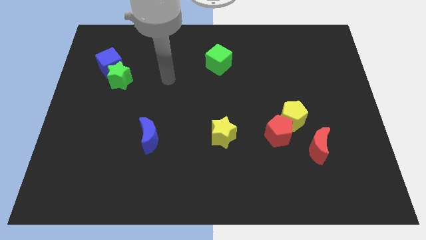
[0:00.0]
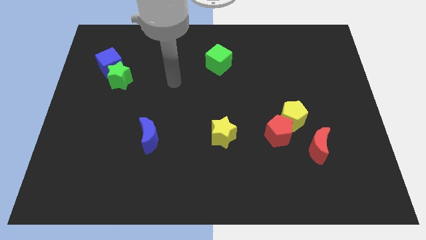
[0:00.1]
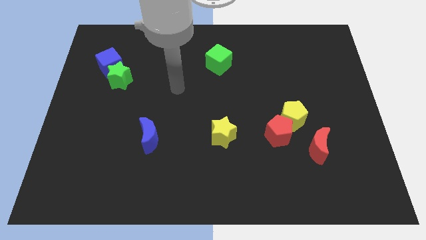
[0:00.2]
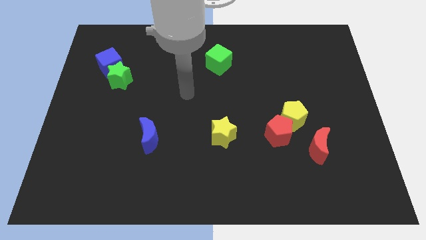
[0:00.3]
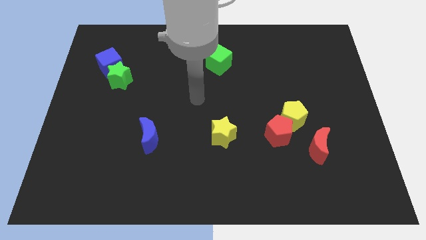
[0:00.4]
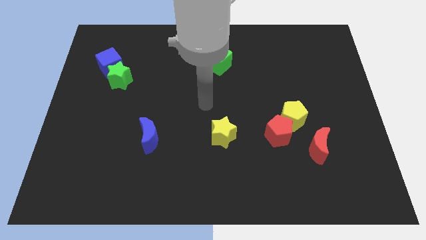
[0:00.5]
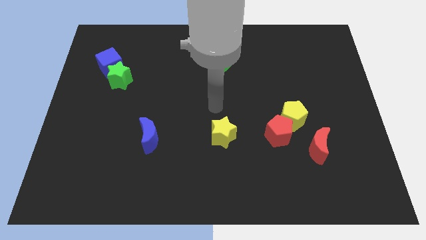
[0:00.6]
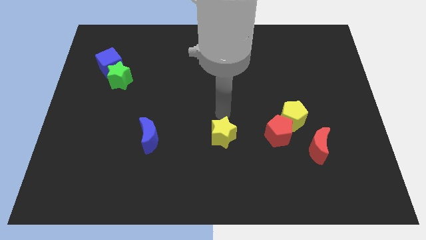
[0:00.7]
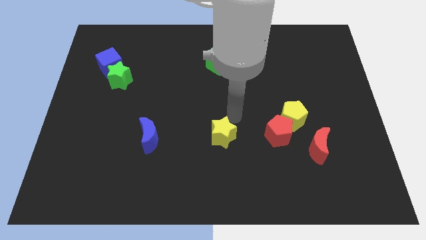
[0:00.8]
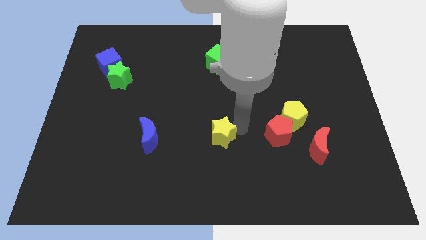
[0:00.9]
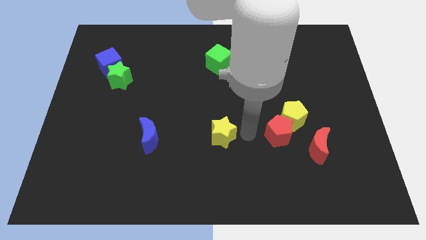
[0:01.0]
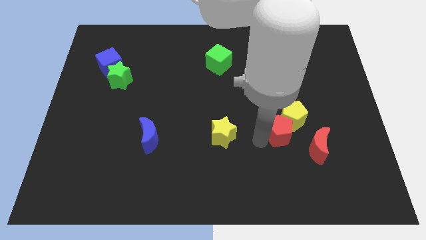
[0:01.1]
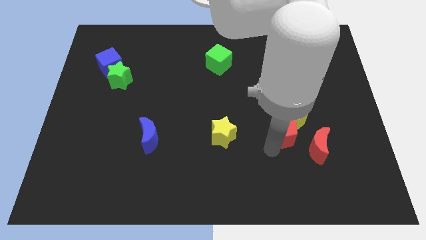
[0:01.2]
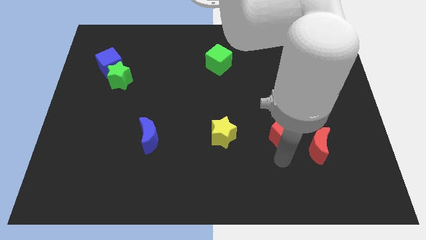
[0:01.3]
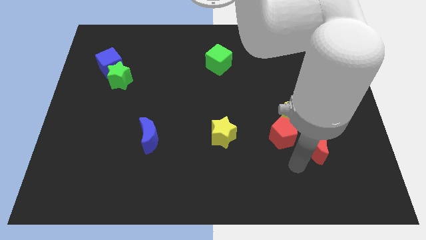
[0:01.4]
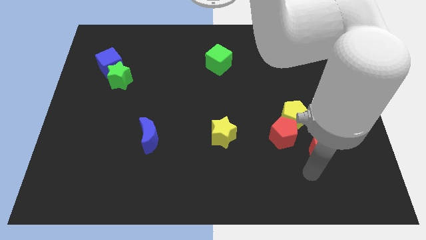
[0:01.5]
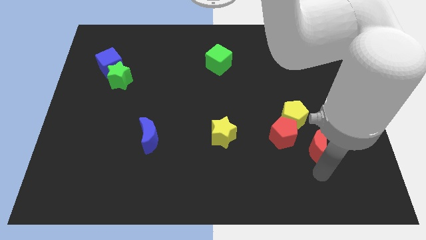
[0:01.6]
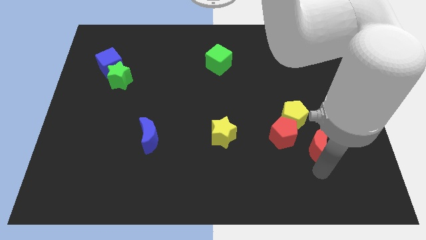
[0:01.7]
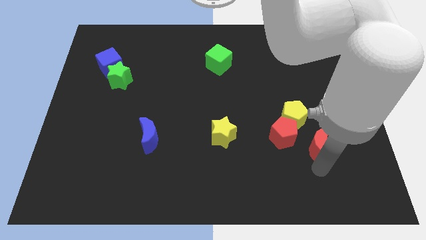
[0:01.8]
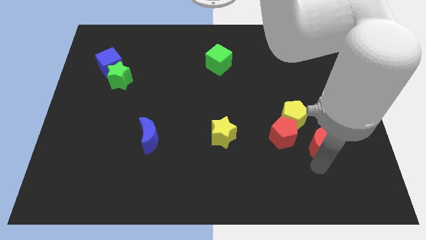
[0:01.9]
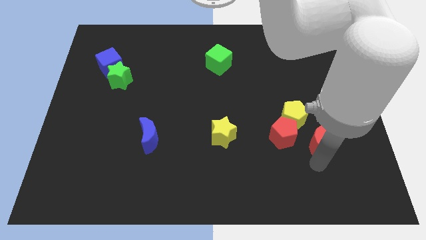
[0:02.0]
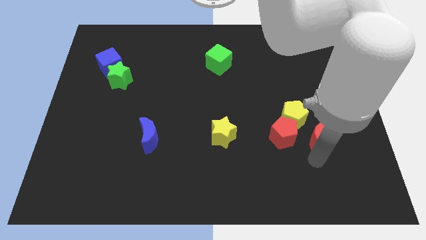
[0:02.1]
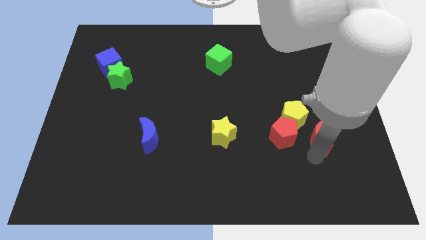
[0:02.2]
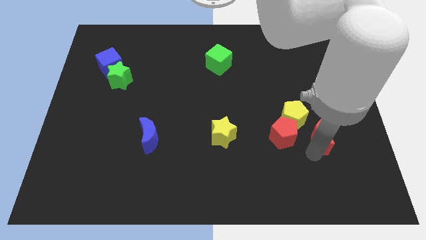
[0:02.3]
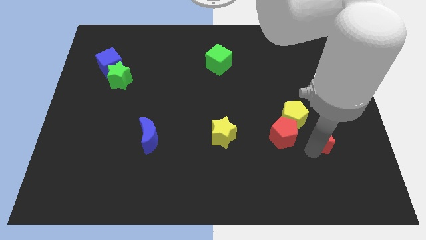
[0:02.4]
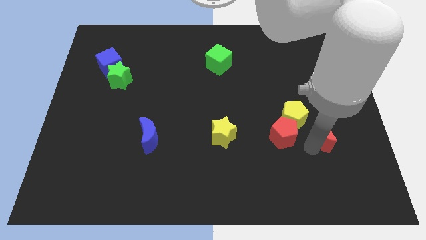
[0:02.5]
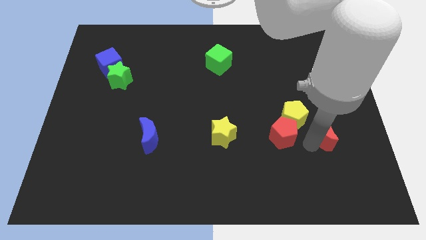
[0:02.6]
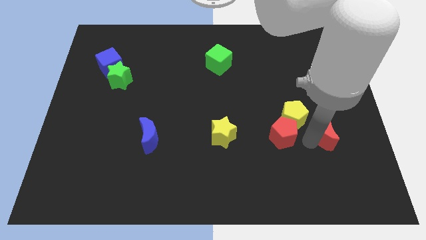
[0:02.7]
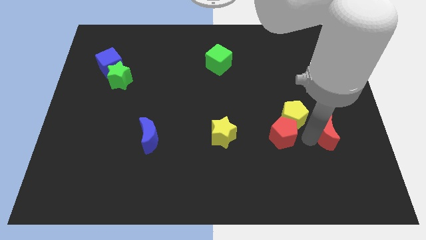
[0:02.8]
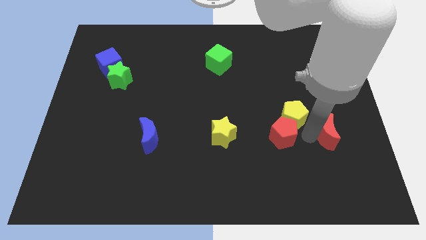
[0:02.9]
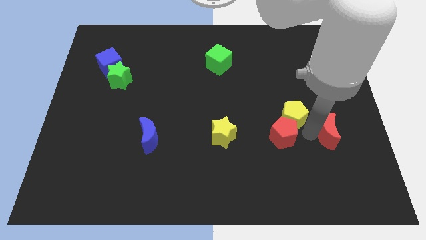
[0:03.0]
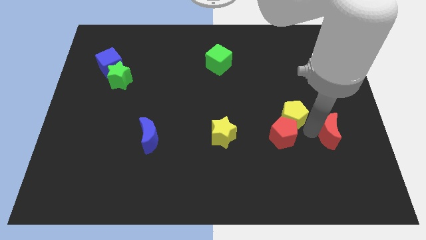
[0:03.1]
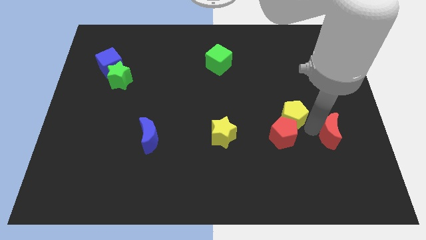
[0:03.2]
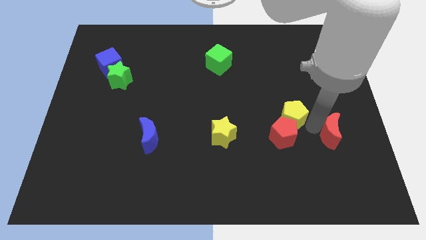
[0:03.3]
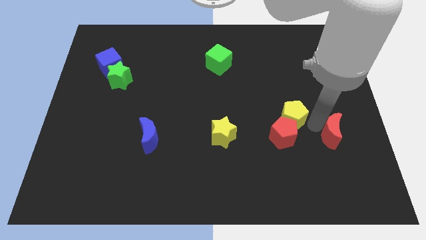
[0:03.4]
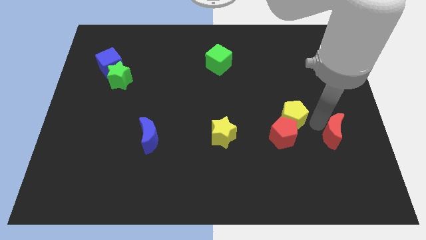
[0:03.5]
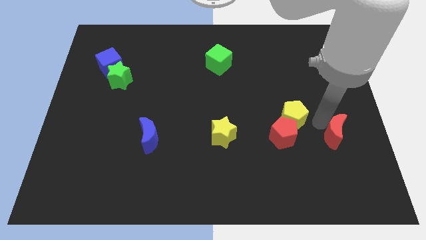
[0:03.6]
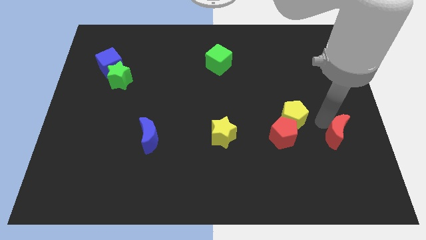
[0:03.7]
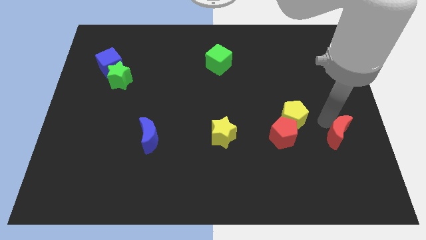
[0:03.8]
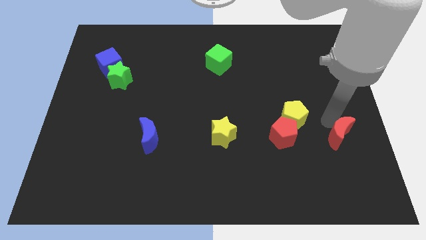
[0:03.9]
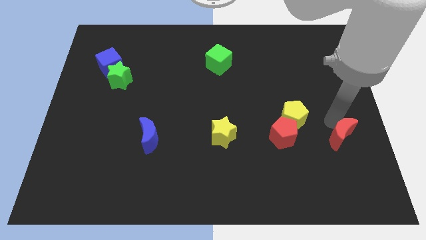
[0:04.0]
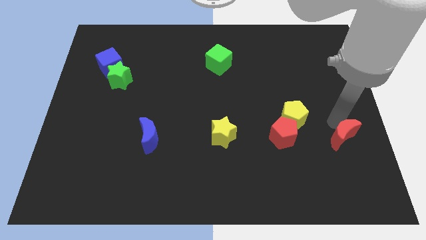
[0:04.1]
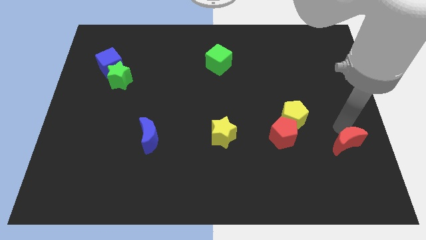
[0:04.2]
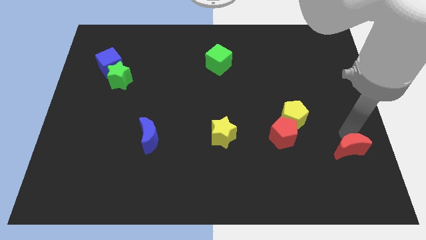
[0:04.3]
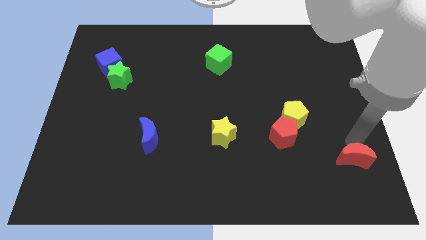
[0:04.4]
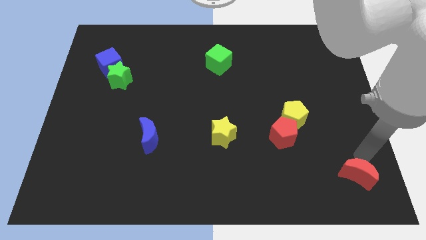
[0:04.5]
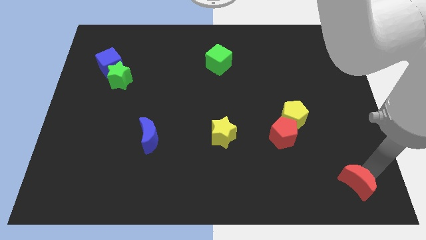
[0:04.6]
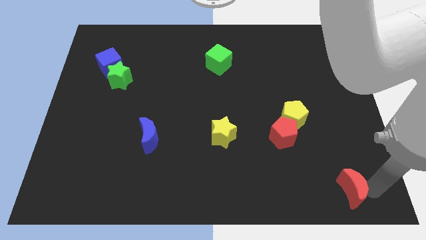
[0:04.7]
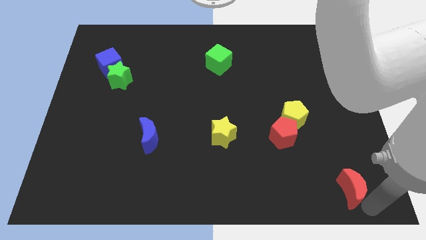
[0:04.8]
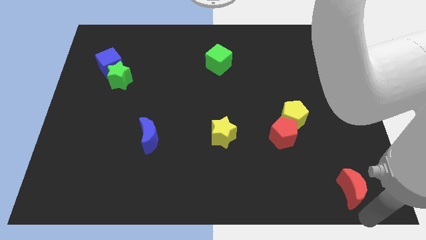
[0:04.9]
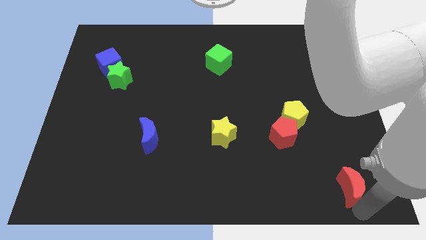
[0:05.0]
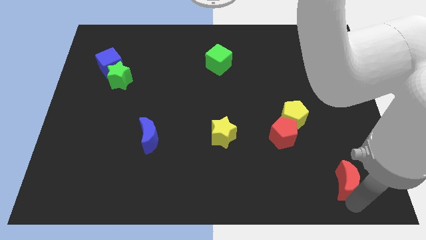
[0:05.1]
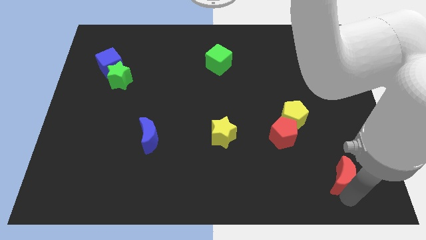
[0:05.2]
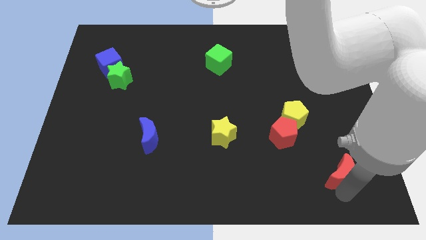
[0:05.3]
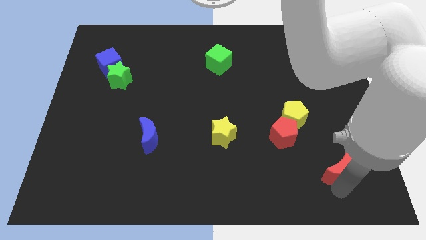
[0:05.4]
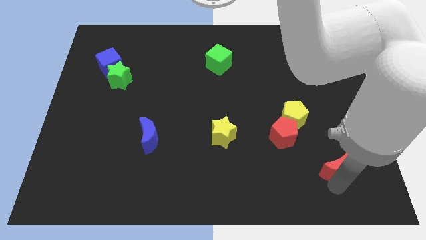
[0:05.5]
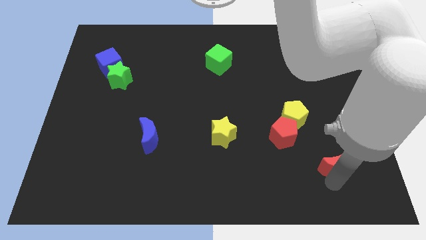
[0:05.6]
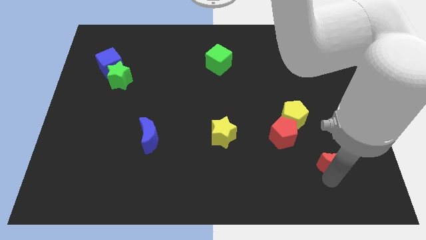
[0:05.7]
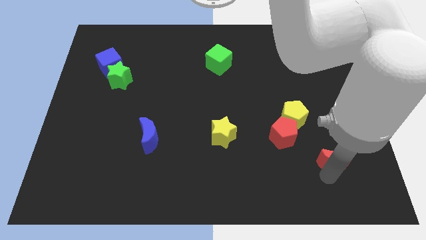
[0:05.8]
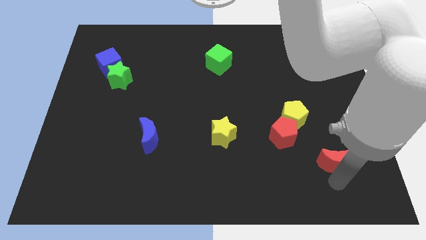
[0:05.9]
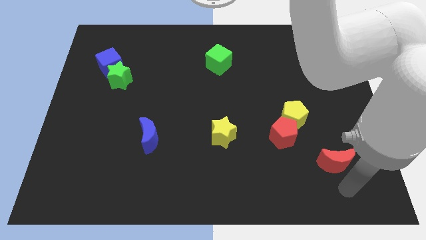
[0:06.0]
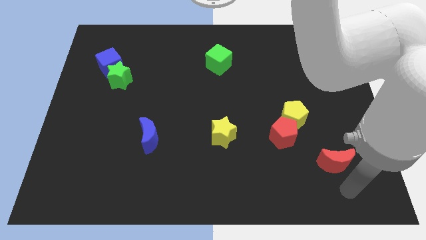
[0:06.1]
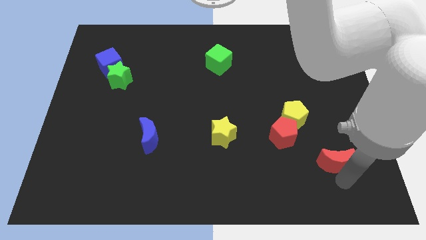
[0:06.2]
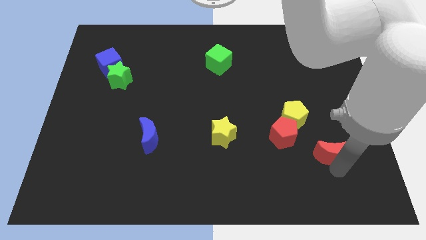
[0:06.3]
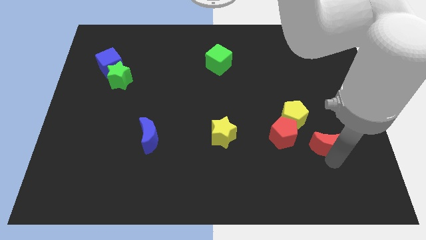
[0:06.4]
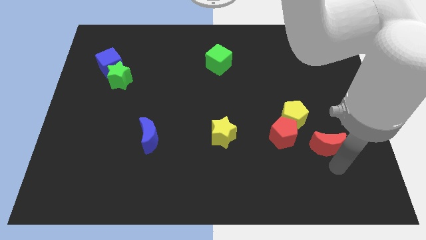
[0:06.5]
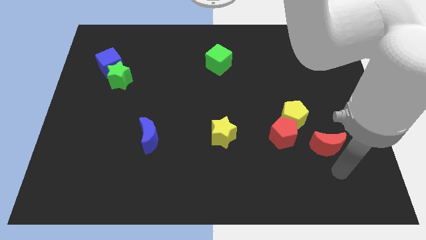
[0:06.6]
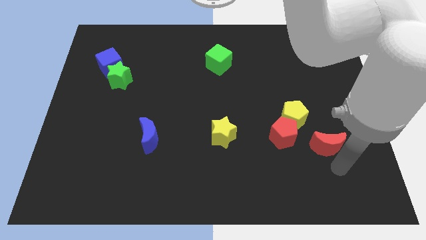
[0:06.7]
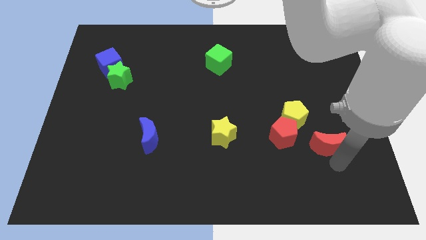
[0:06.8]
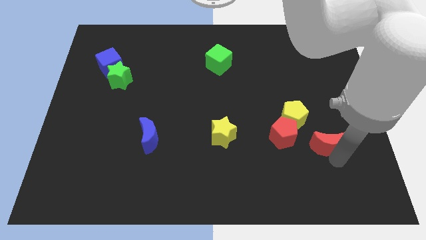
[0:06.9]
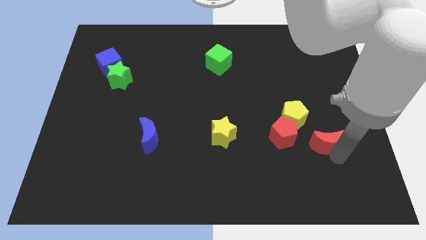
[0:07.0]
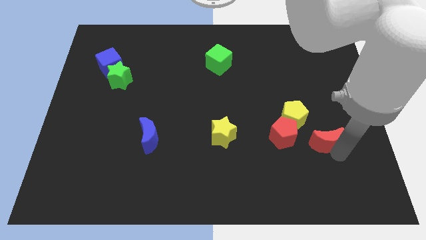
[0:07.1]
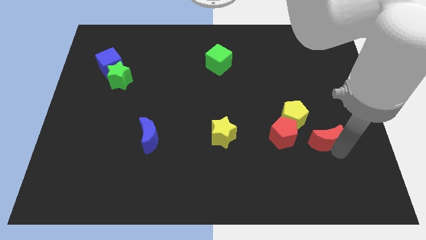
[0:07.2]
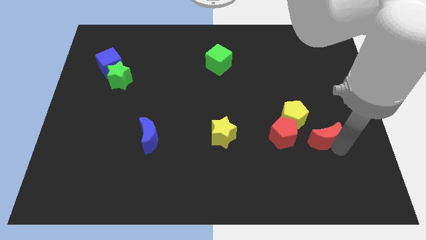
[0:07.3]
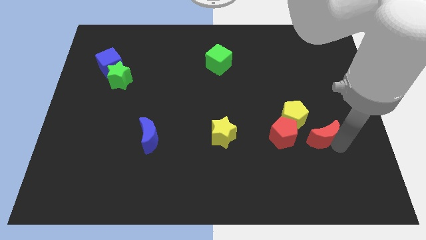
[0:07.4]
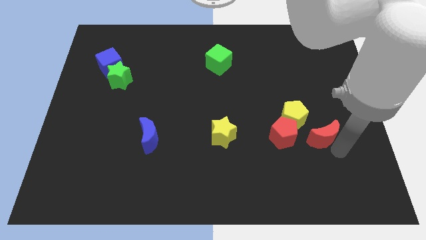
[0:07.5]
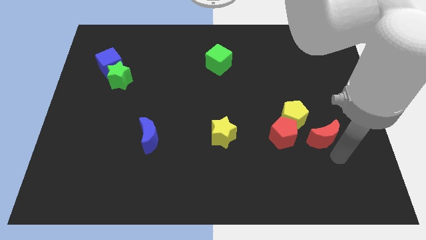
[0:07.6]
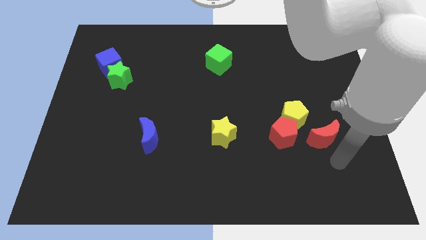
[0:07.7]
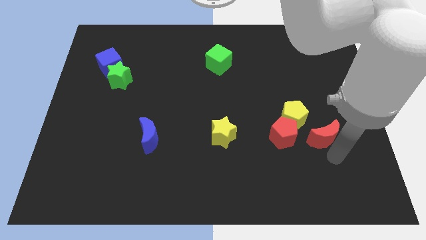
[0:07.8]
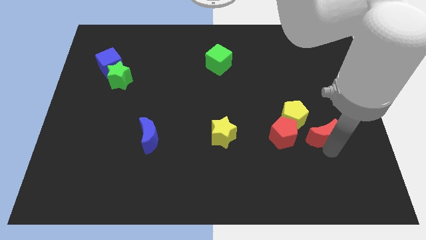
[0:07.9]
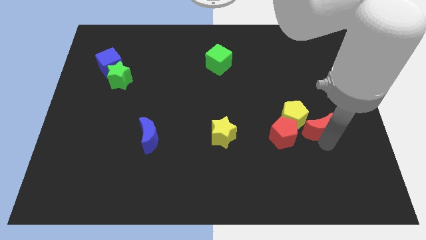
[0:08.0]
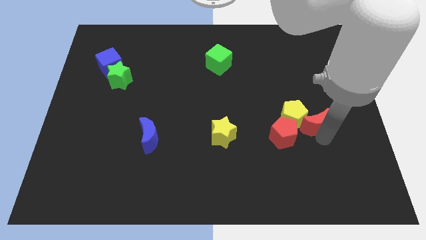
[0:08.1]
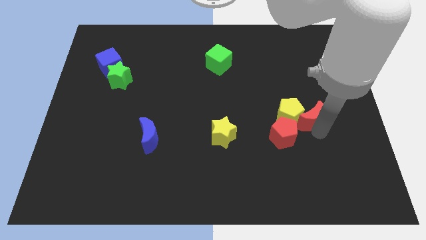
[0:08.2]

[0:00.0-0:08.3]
push the red moon a little bit up
